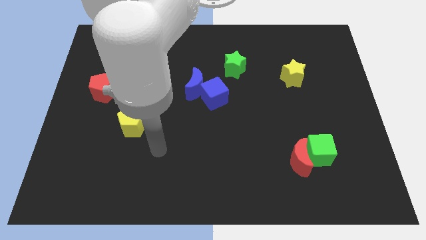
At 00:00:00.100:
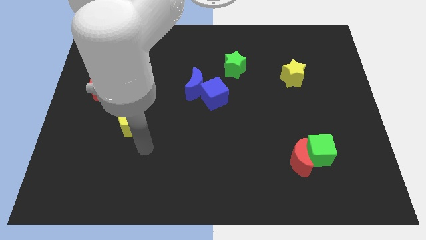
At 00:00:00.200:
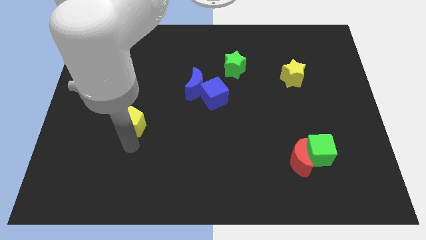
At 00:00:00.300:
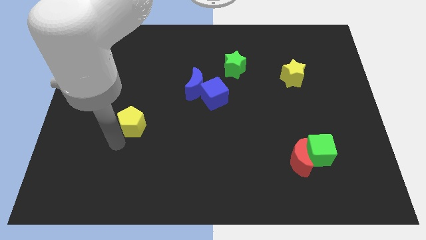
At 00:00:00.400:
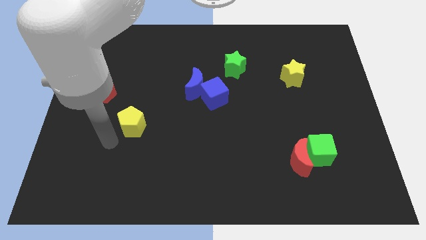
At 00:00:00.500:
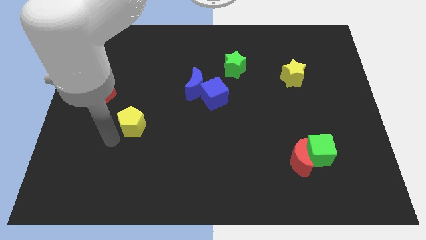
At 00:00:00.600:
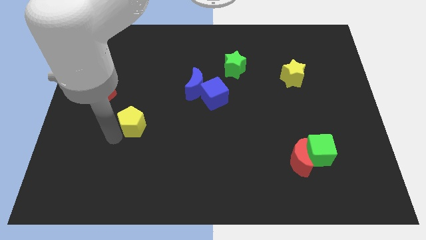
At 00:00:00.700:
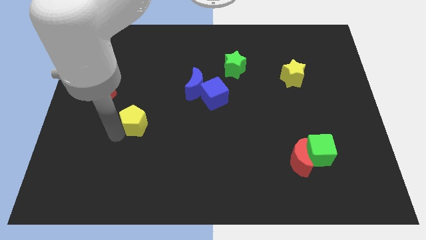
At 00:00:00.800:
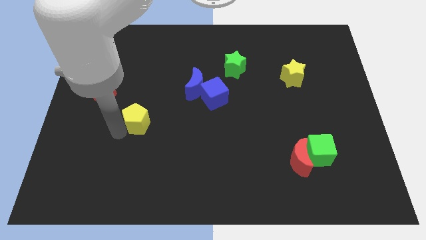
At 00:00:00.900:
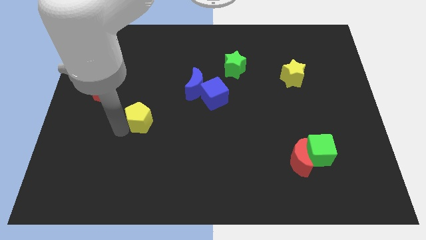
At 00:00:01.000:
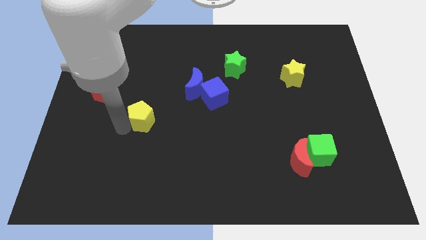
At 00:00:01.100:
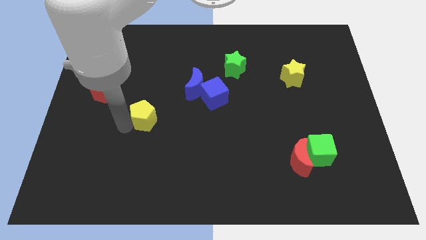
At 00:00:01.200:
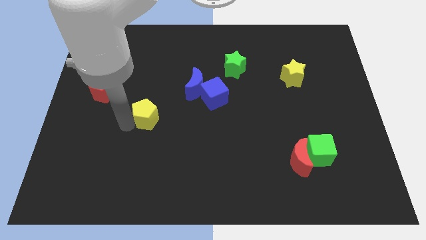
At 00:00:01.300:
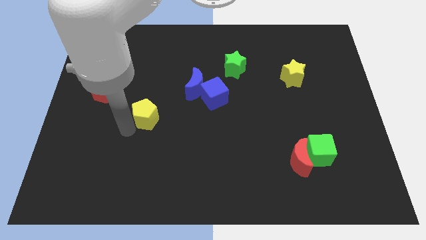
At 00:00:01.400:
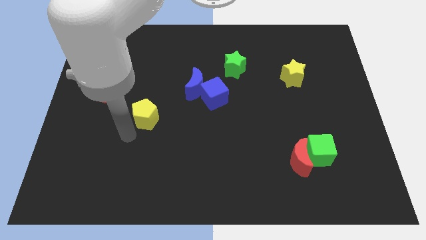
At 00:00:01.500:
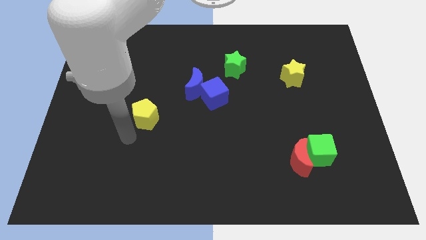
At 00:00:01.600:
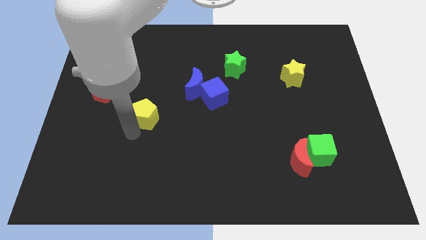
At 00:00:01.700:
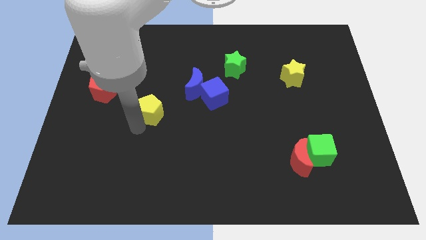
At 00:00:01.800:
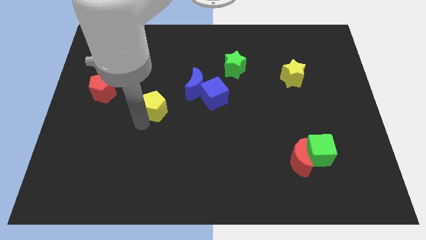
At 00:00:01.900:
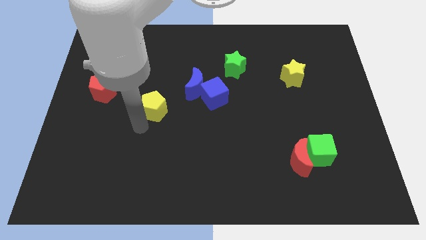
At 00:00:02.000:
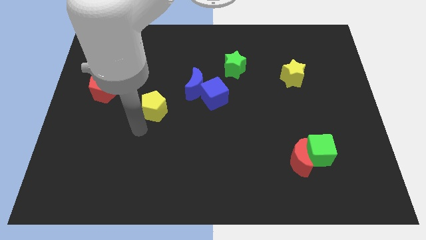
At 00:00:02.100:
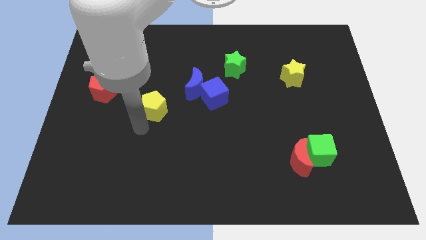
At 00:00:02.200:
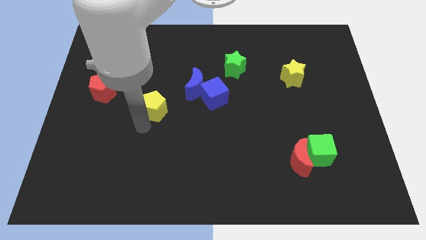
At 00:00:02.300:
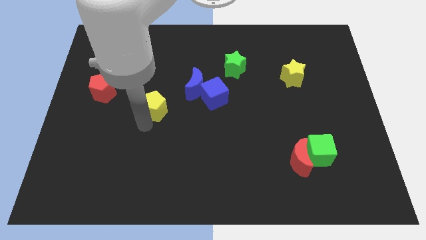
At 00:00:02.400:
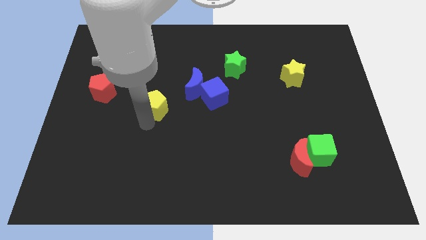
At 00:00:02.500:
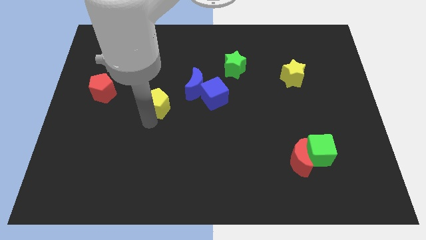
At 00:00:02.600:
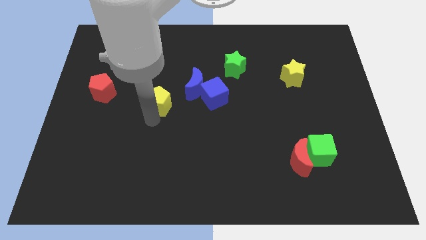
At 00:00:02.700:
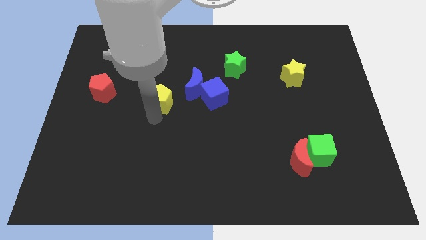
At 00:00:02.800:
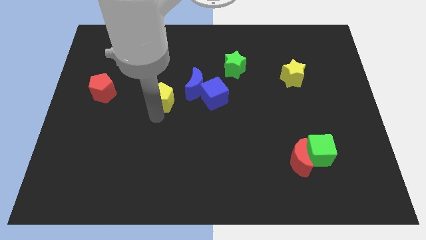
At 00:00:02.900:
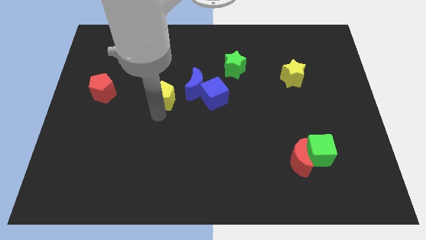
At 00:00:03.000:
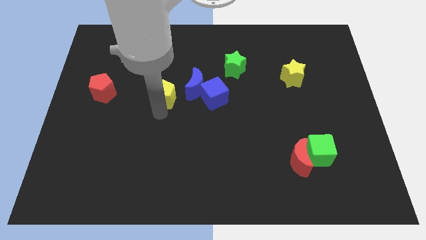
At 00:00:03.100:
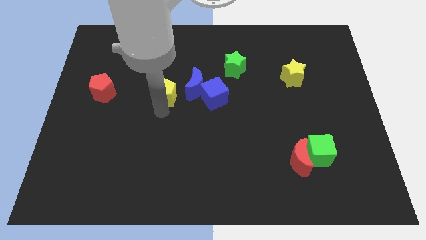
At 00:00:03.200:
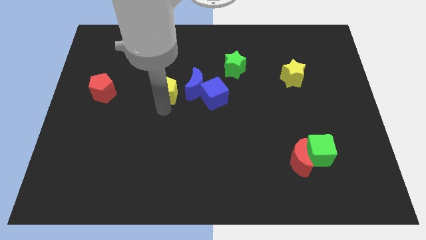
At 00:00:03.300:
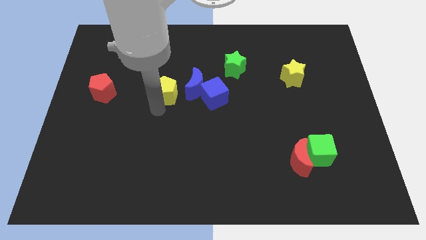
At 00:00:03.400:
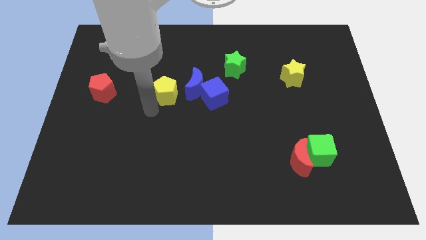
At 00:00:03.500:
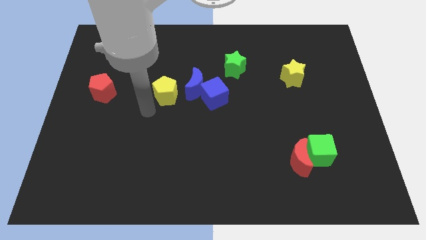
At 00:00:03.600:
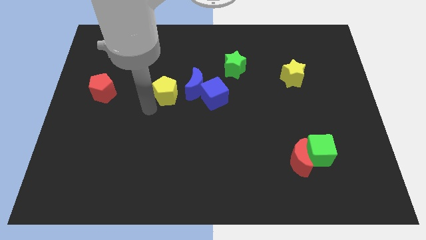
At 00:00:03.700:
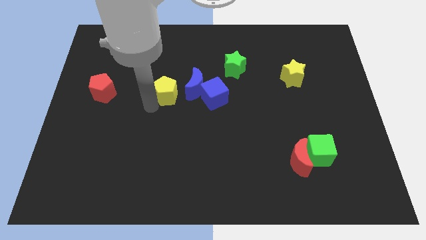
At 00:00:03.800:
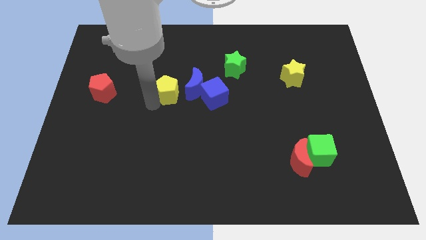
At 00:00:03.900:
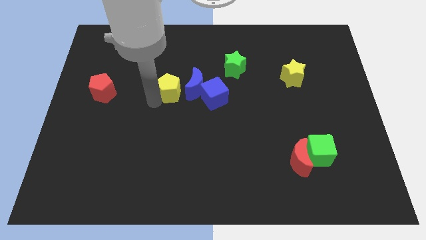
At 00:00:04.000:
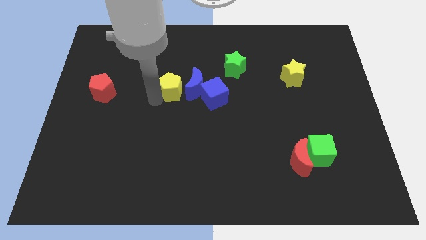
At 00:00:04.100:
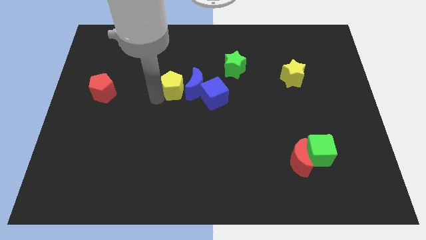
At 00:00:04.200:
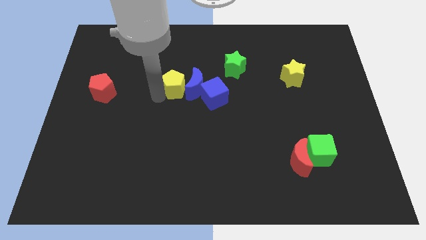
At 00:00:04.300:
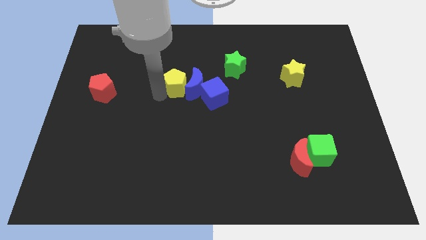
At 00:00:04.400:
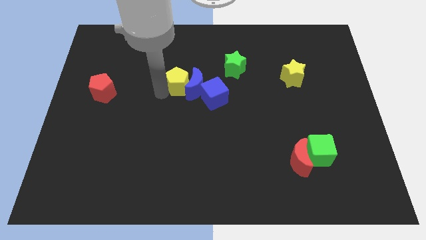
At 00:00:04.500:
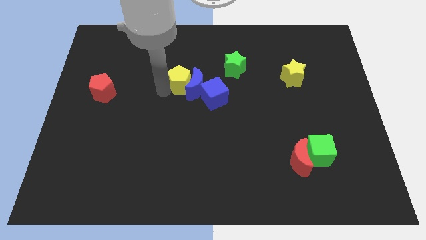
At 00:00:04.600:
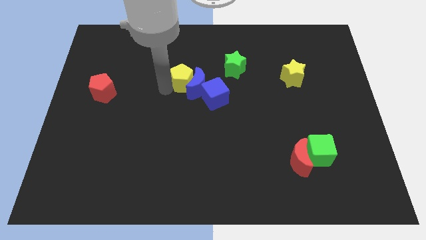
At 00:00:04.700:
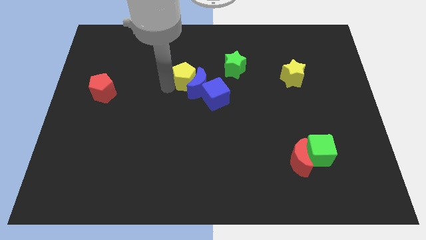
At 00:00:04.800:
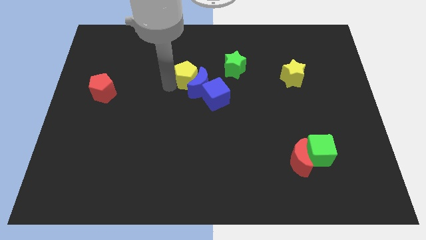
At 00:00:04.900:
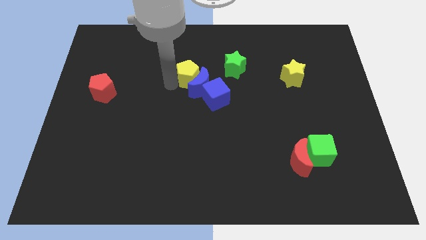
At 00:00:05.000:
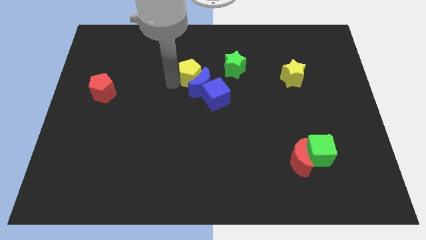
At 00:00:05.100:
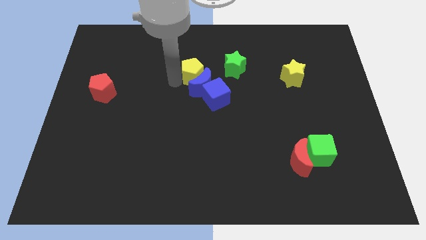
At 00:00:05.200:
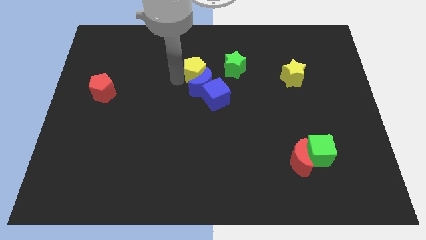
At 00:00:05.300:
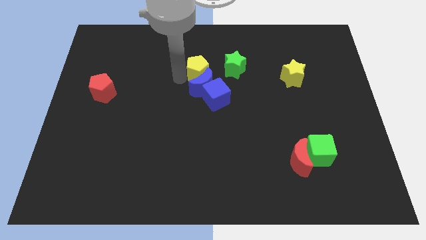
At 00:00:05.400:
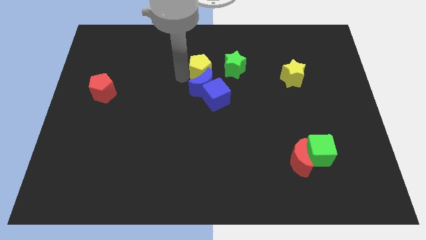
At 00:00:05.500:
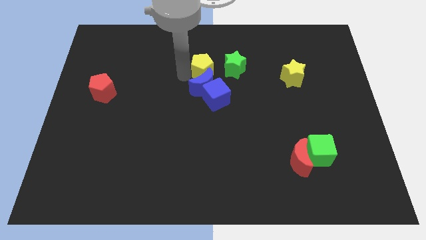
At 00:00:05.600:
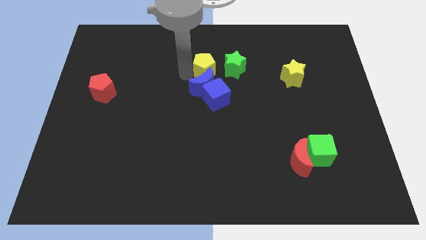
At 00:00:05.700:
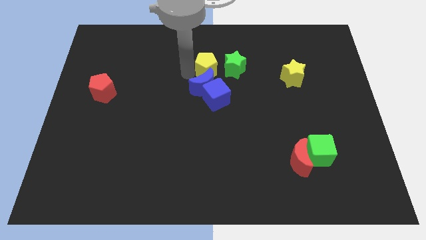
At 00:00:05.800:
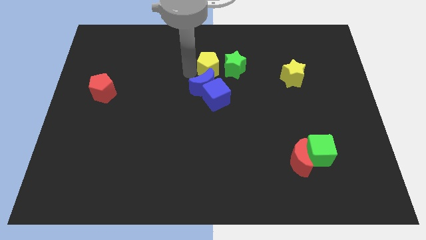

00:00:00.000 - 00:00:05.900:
put the yellow pentagon to the green star

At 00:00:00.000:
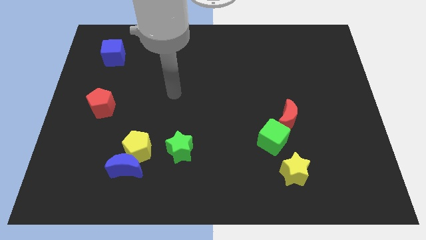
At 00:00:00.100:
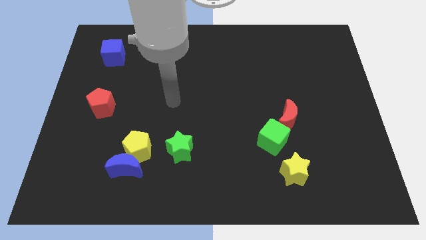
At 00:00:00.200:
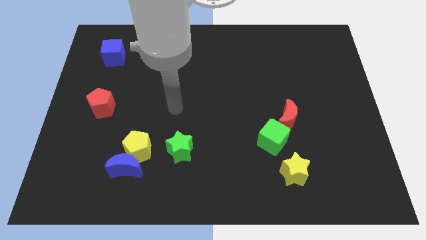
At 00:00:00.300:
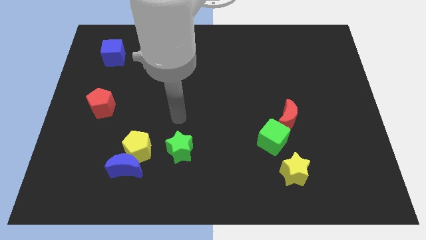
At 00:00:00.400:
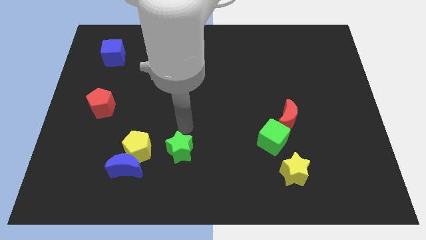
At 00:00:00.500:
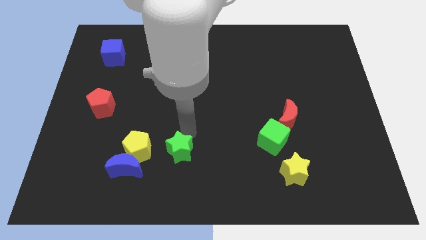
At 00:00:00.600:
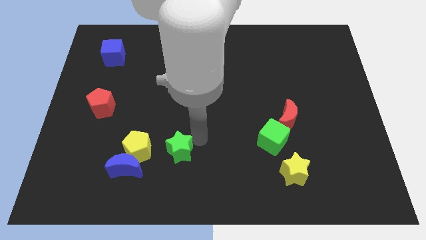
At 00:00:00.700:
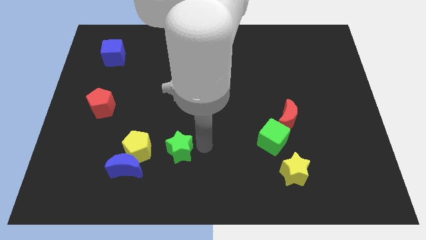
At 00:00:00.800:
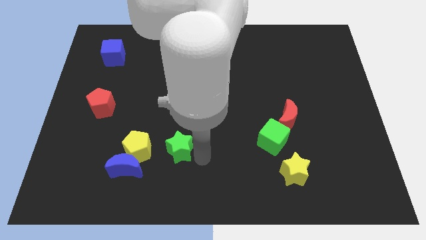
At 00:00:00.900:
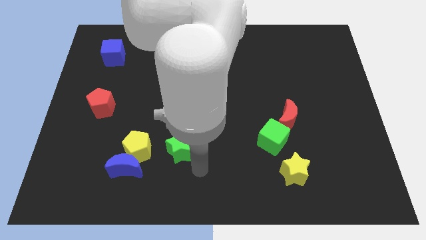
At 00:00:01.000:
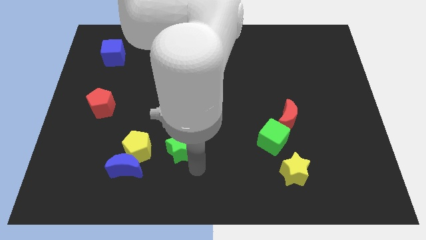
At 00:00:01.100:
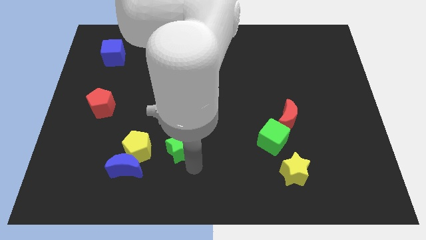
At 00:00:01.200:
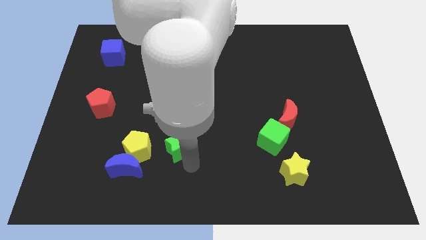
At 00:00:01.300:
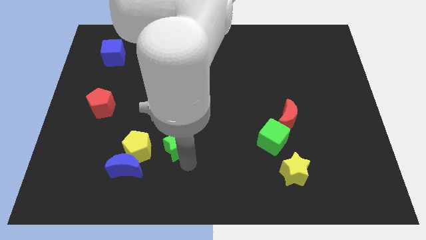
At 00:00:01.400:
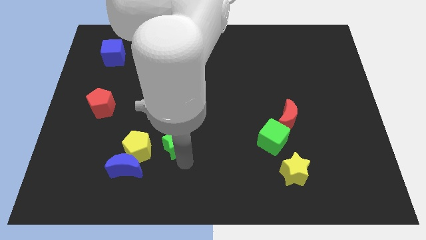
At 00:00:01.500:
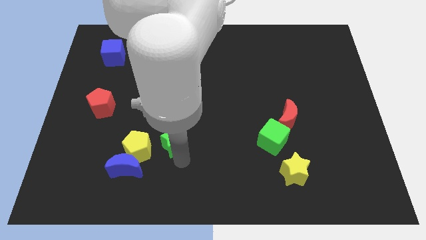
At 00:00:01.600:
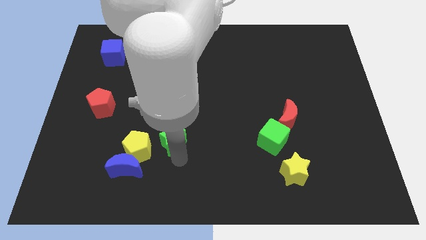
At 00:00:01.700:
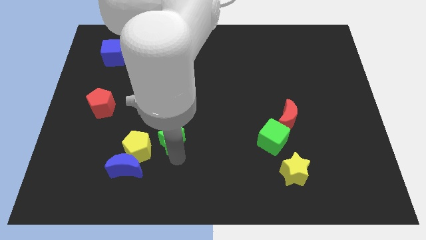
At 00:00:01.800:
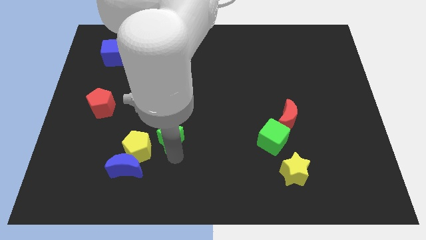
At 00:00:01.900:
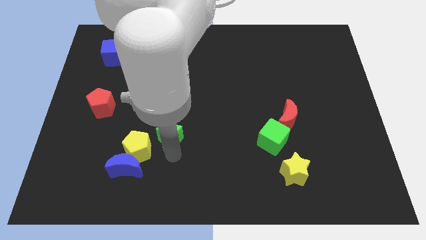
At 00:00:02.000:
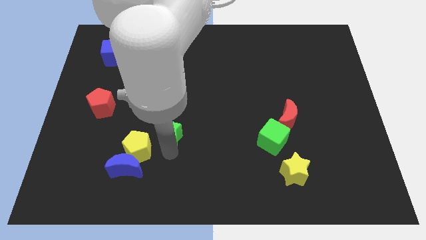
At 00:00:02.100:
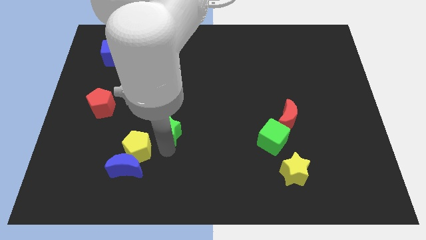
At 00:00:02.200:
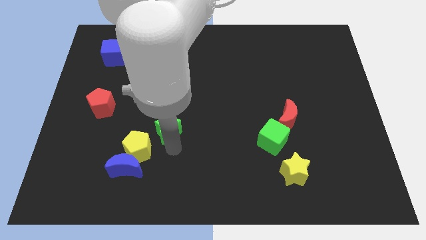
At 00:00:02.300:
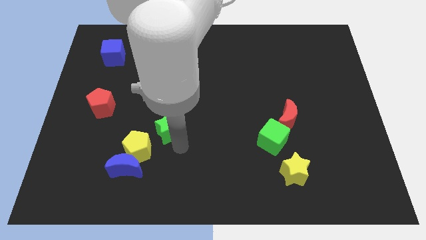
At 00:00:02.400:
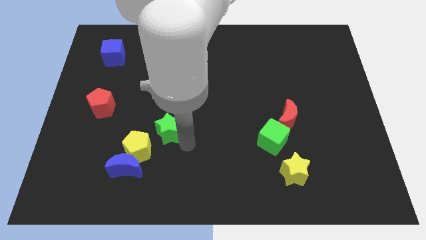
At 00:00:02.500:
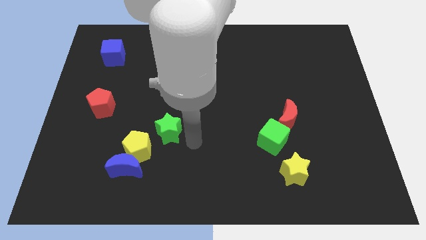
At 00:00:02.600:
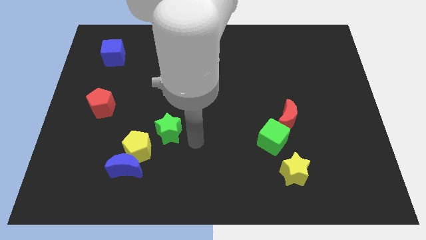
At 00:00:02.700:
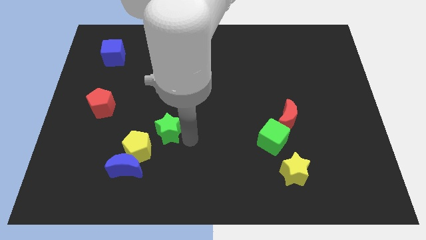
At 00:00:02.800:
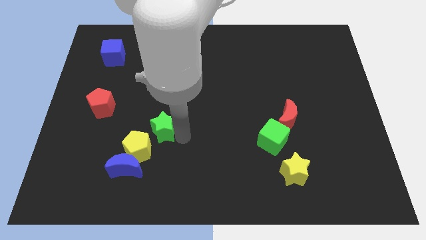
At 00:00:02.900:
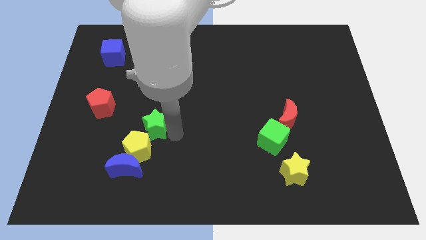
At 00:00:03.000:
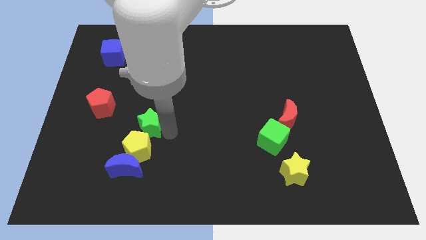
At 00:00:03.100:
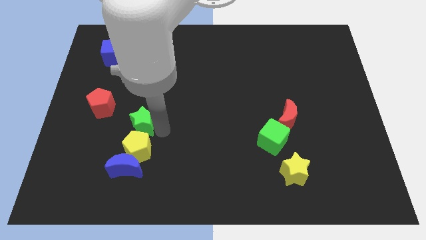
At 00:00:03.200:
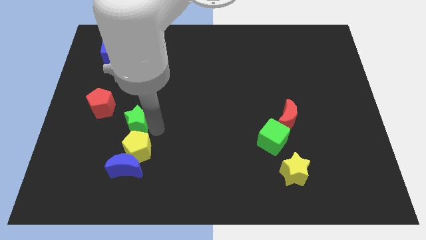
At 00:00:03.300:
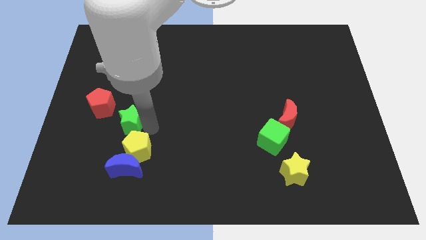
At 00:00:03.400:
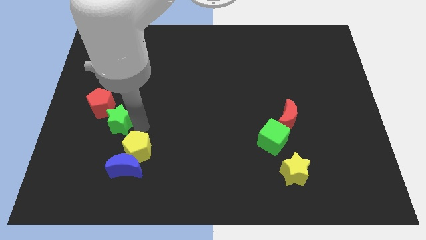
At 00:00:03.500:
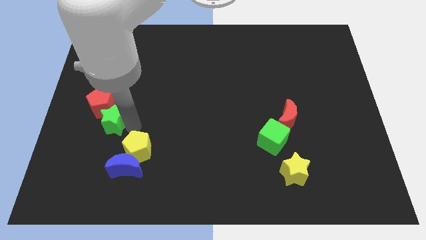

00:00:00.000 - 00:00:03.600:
put the green star to the red pentagon
